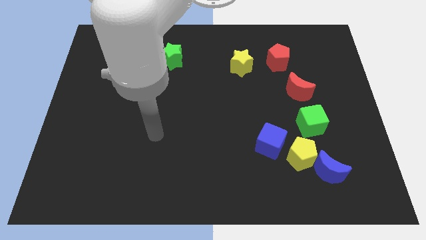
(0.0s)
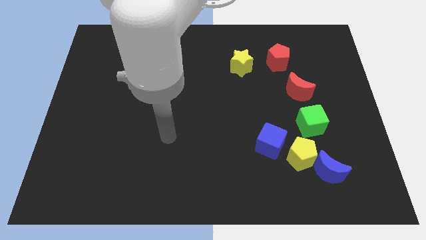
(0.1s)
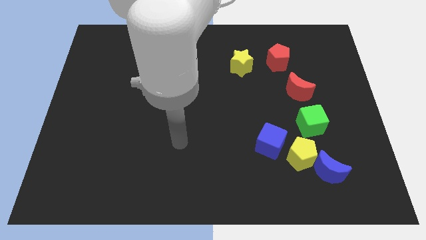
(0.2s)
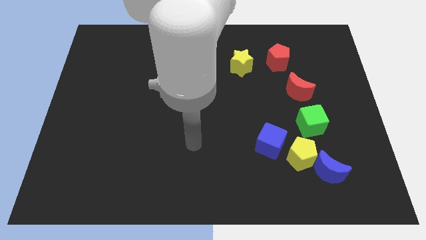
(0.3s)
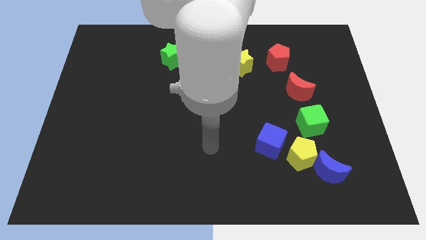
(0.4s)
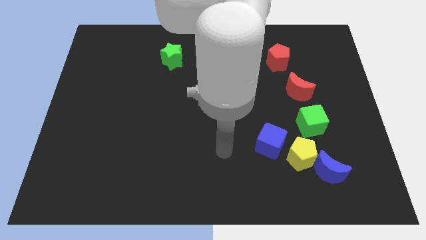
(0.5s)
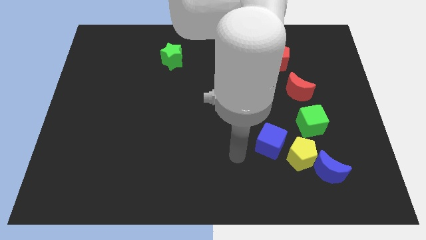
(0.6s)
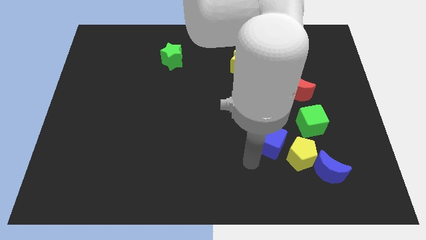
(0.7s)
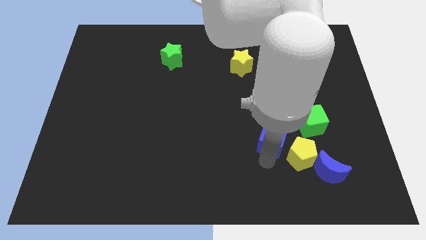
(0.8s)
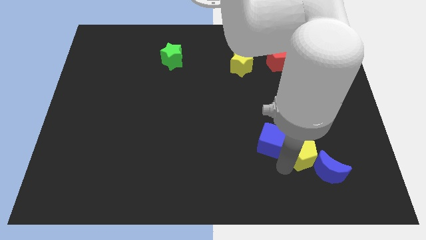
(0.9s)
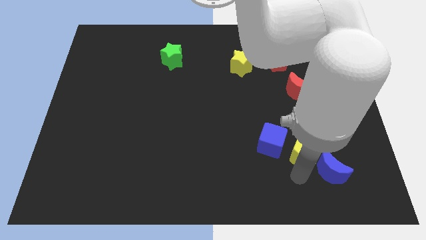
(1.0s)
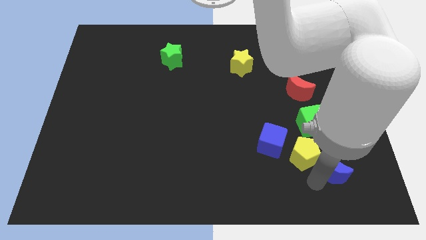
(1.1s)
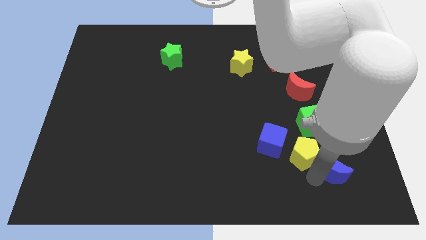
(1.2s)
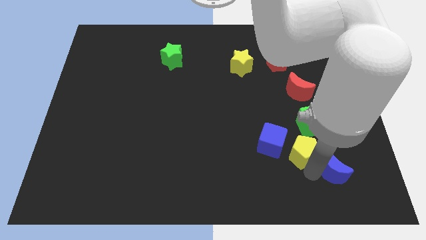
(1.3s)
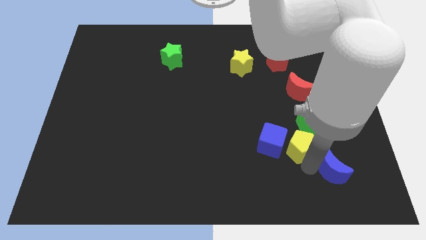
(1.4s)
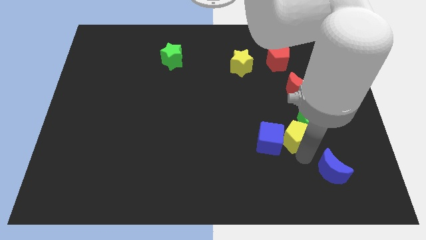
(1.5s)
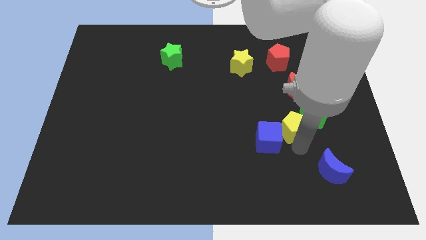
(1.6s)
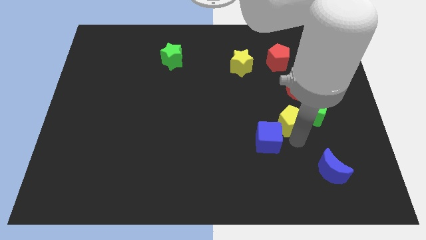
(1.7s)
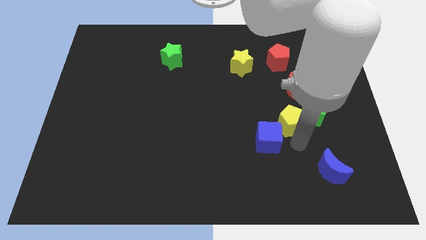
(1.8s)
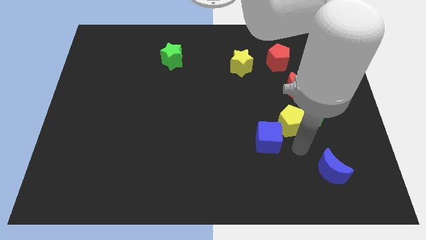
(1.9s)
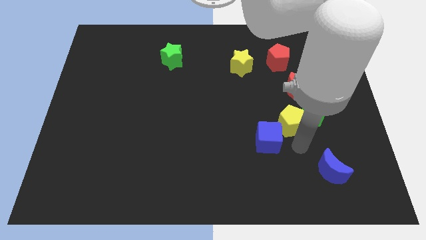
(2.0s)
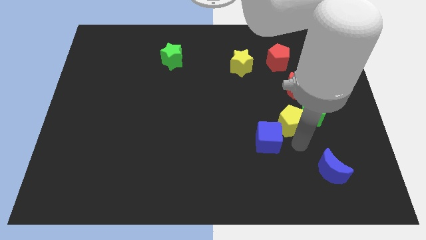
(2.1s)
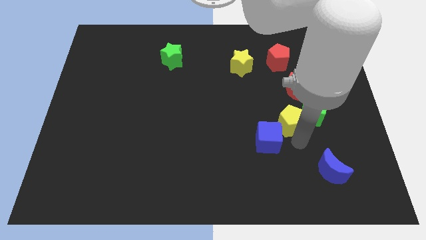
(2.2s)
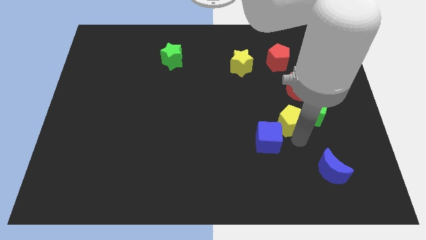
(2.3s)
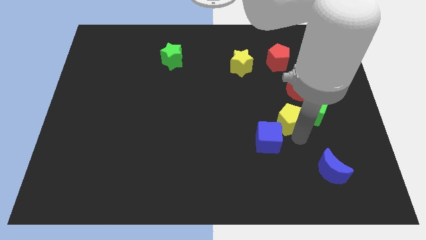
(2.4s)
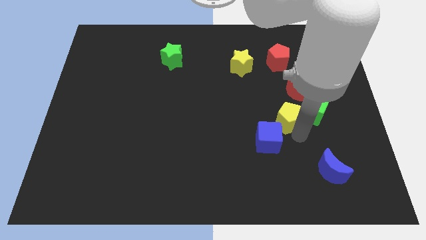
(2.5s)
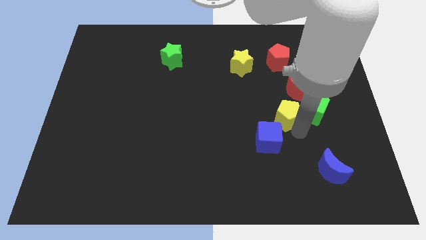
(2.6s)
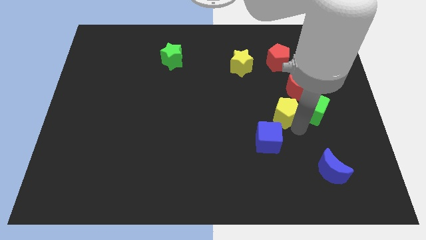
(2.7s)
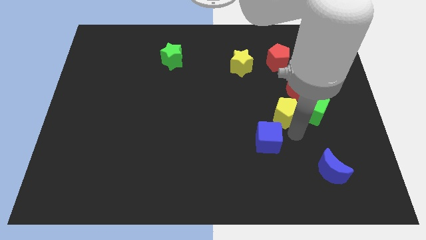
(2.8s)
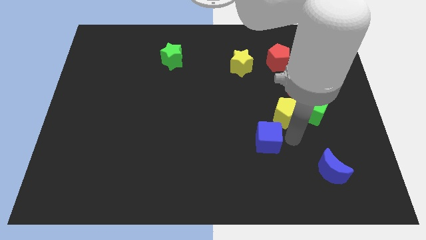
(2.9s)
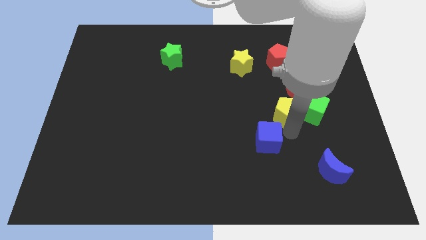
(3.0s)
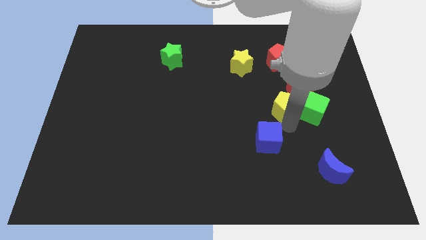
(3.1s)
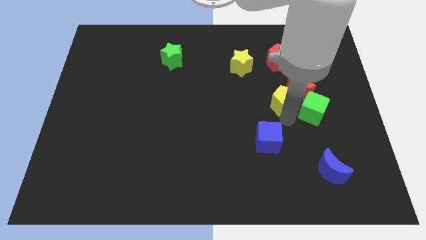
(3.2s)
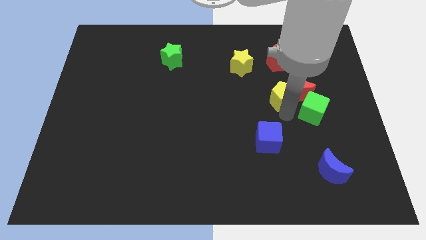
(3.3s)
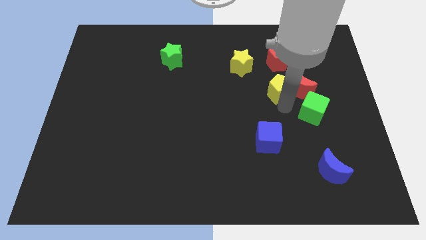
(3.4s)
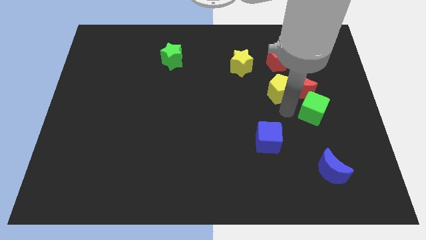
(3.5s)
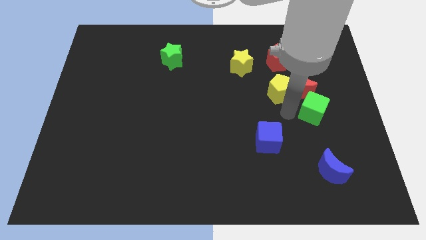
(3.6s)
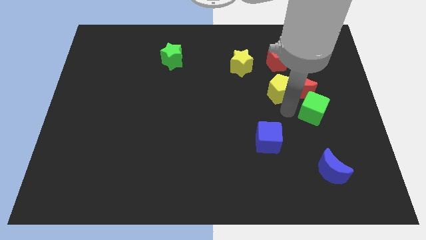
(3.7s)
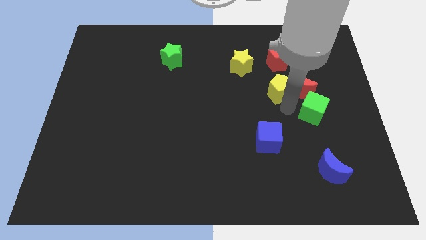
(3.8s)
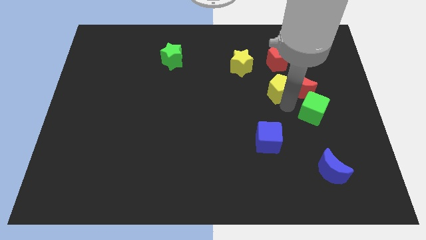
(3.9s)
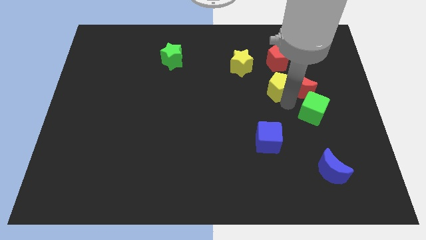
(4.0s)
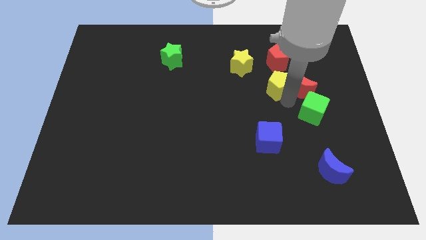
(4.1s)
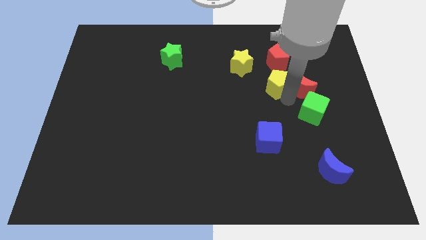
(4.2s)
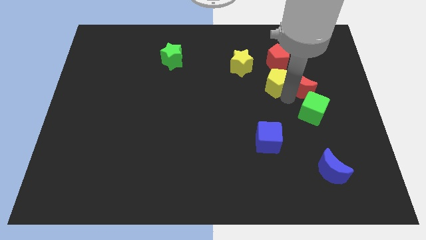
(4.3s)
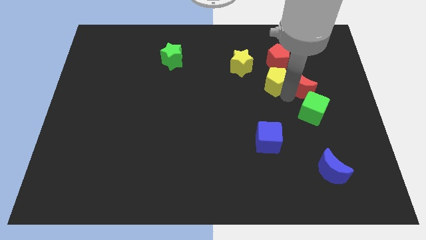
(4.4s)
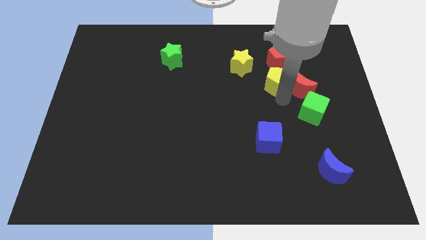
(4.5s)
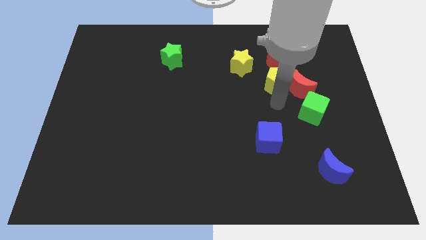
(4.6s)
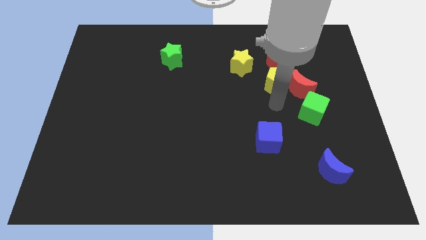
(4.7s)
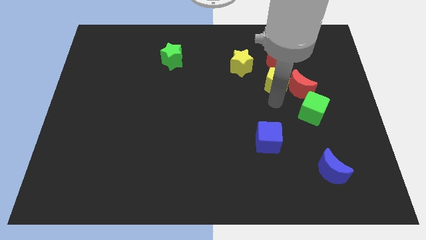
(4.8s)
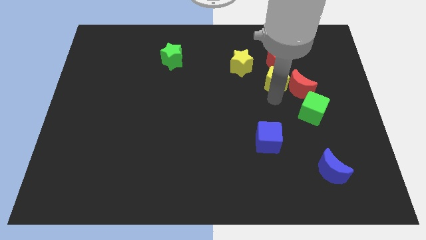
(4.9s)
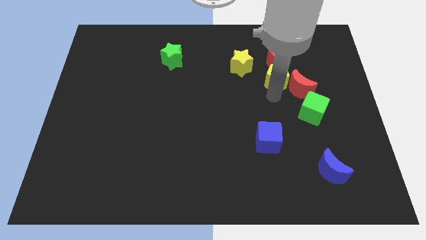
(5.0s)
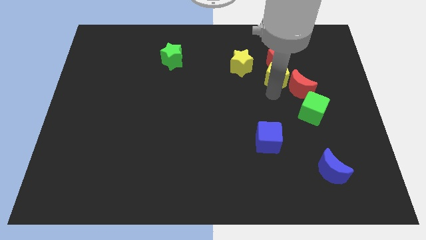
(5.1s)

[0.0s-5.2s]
move the yellow pentagon to the red pentagon

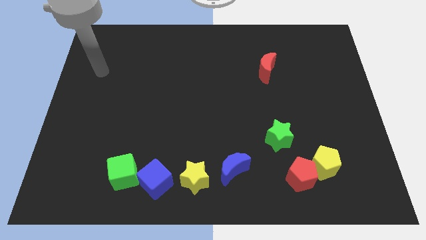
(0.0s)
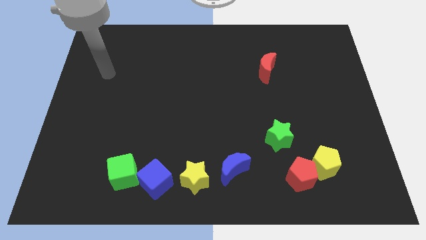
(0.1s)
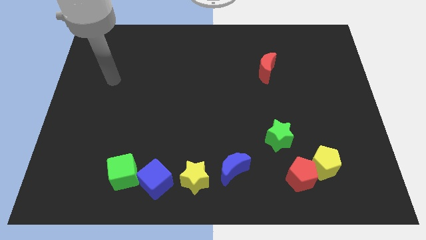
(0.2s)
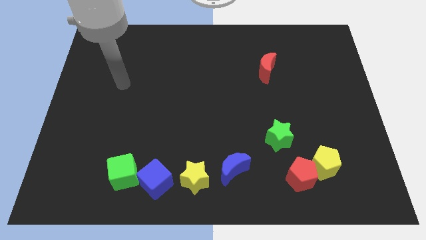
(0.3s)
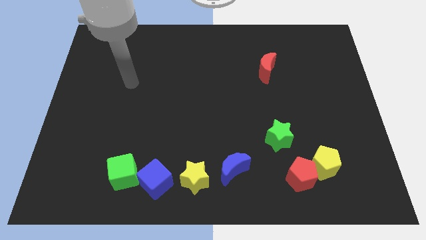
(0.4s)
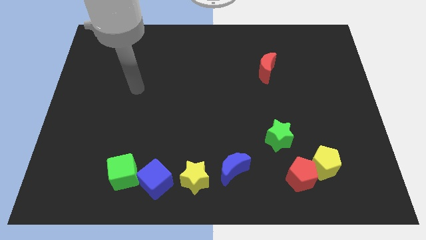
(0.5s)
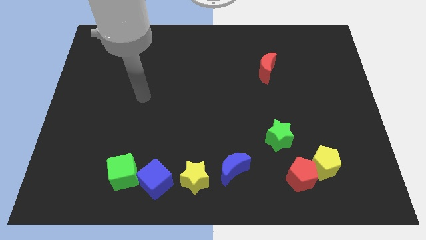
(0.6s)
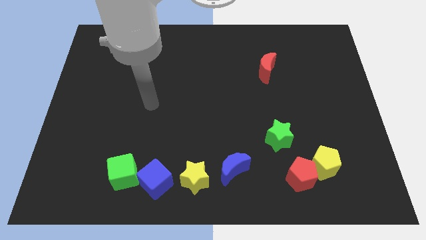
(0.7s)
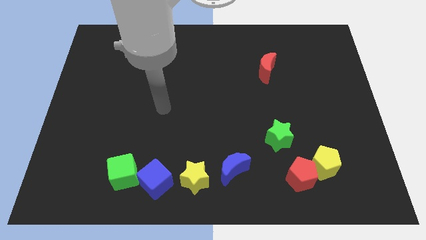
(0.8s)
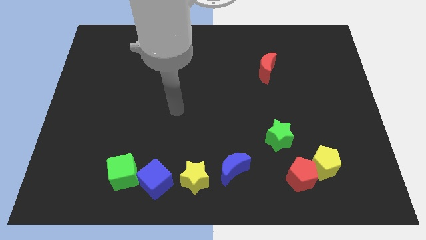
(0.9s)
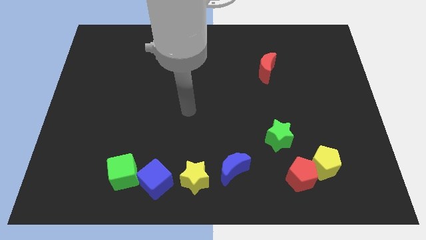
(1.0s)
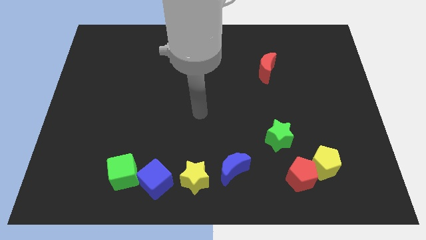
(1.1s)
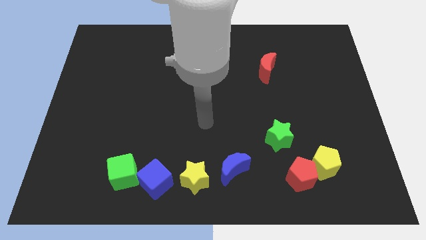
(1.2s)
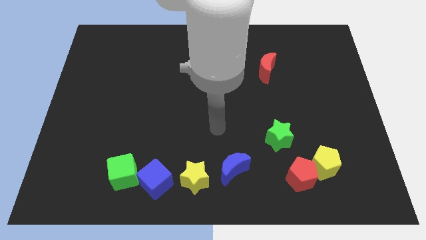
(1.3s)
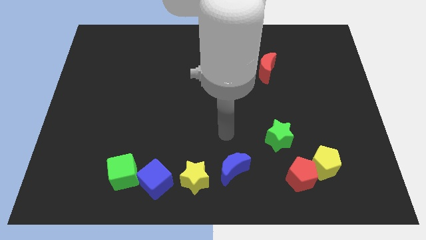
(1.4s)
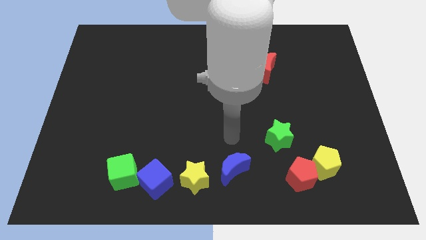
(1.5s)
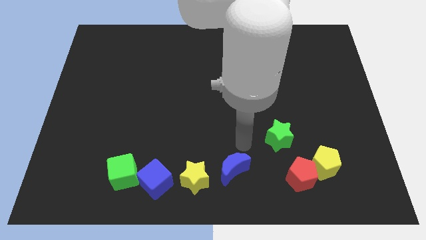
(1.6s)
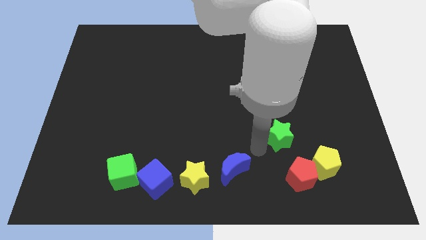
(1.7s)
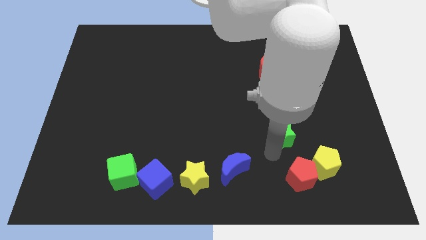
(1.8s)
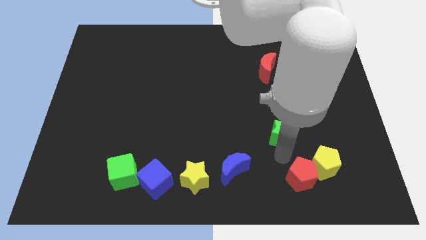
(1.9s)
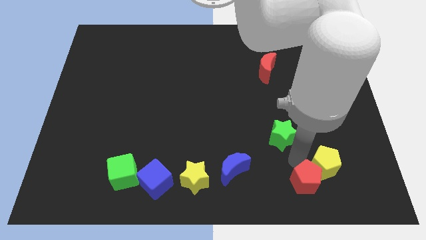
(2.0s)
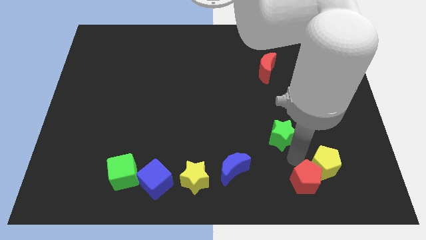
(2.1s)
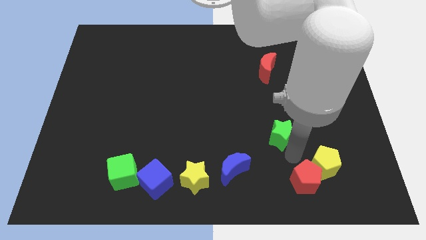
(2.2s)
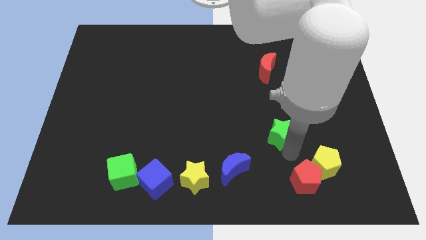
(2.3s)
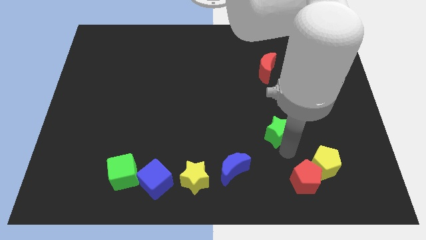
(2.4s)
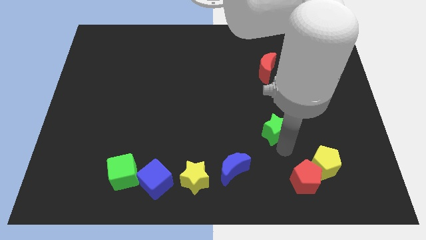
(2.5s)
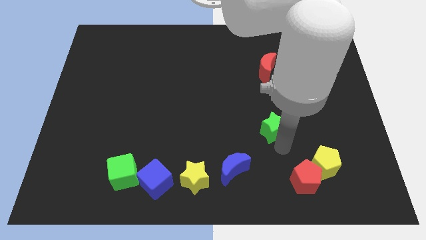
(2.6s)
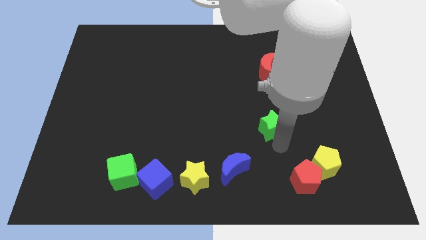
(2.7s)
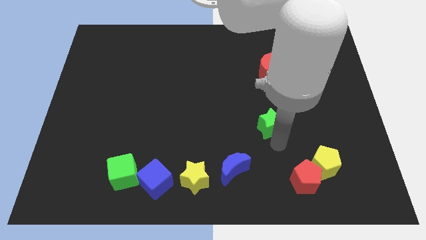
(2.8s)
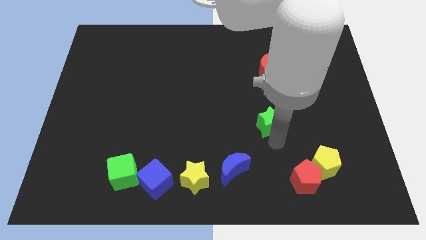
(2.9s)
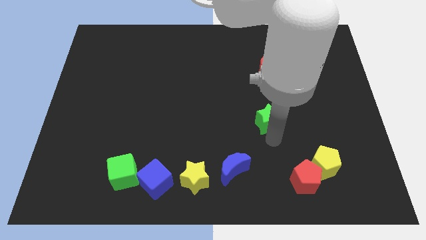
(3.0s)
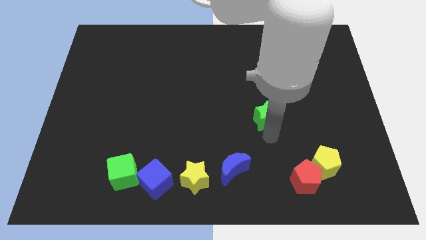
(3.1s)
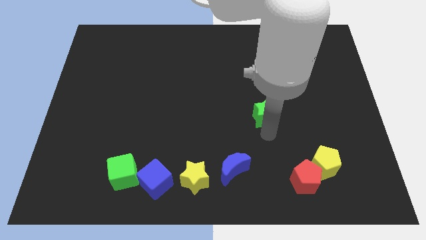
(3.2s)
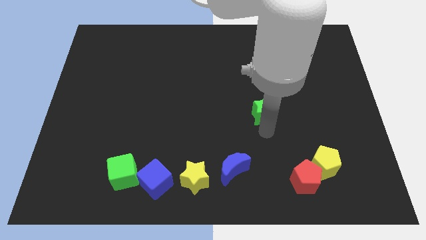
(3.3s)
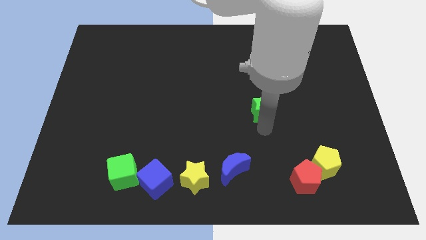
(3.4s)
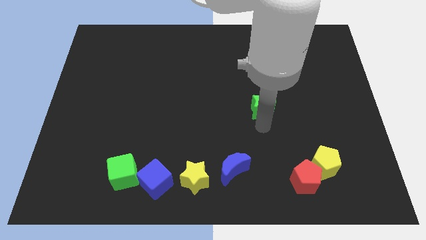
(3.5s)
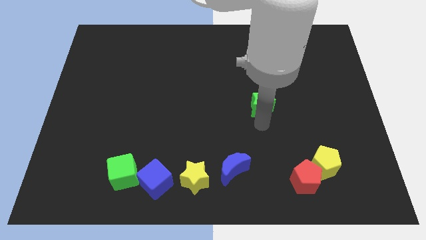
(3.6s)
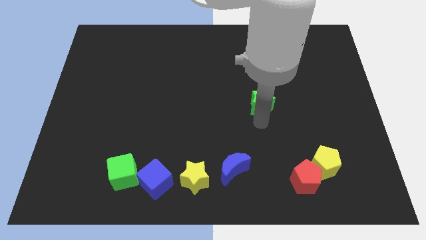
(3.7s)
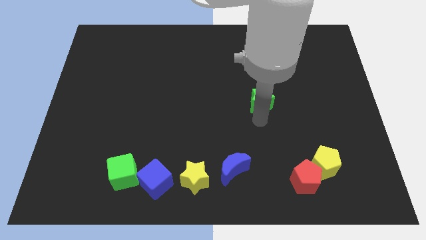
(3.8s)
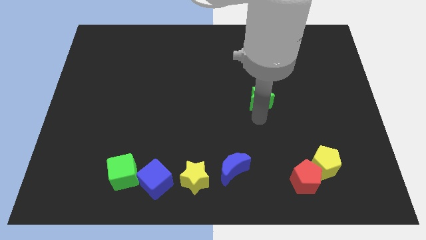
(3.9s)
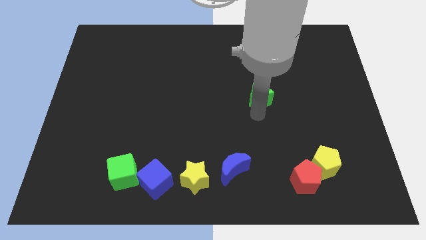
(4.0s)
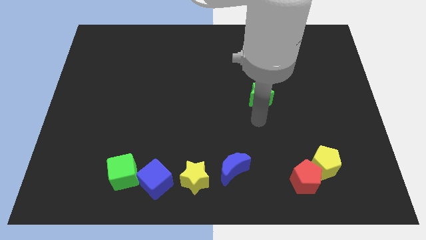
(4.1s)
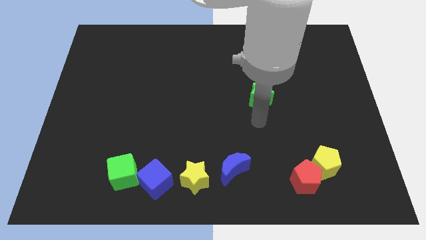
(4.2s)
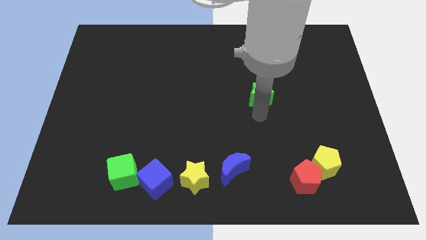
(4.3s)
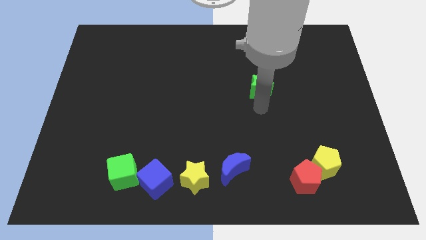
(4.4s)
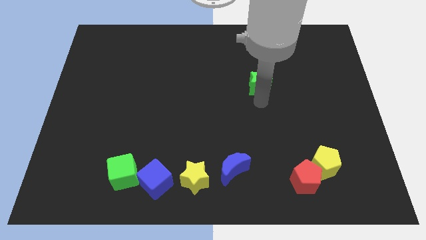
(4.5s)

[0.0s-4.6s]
put the green star to the red moon
